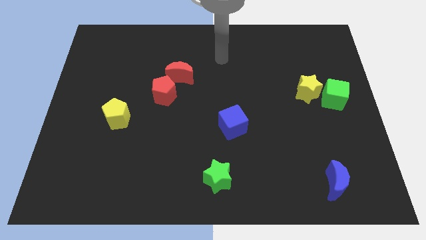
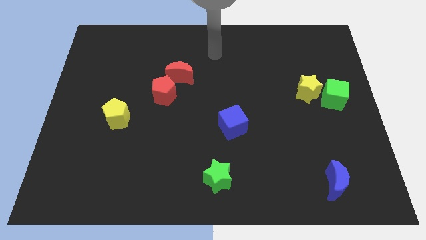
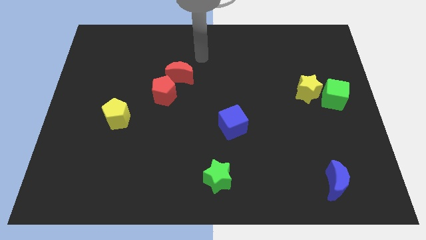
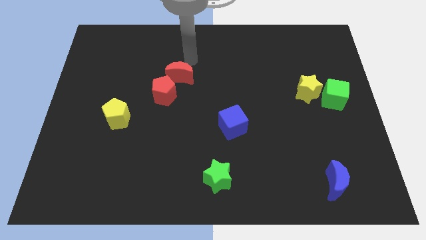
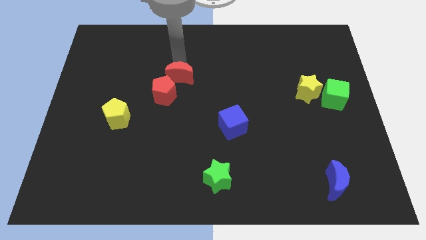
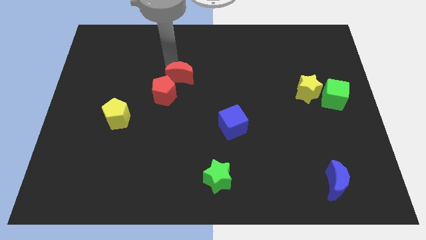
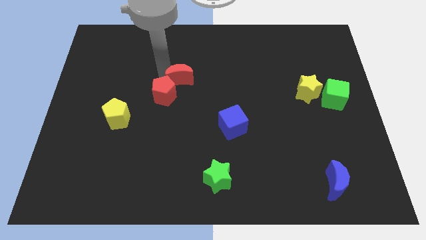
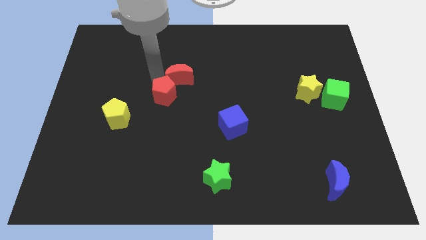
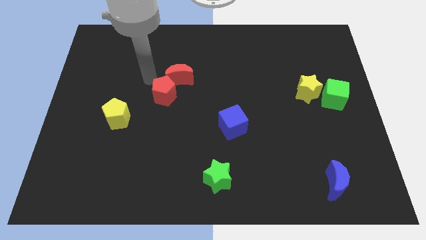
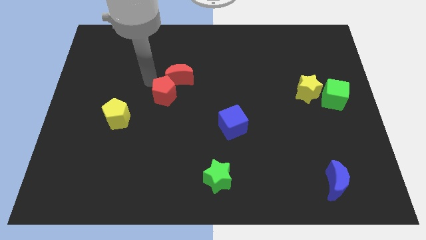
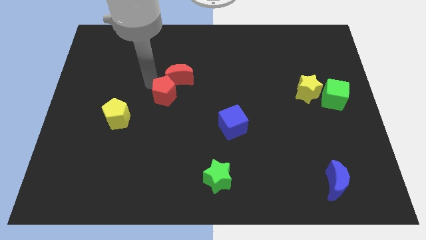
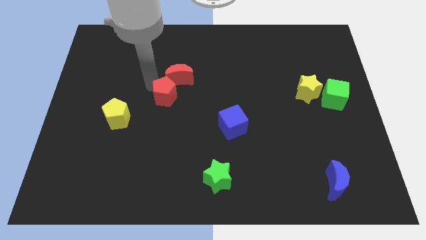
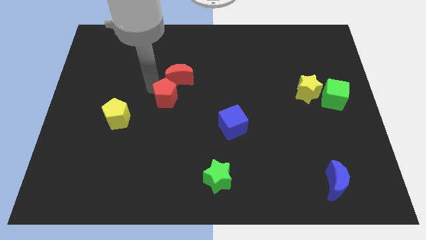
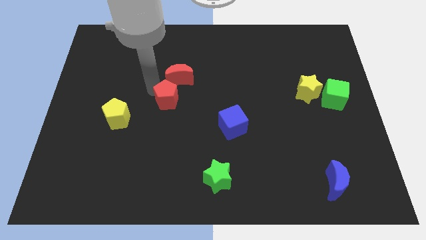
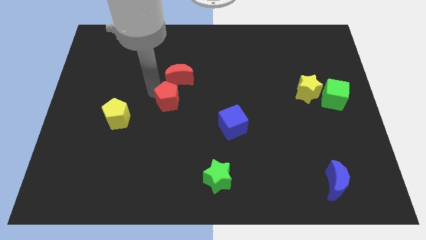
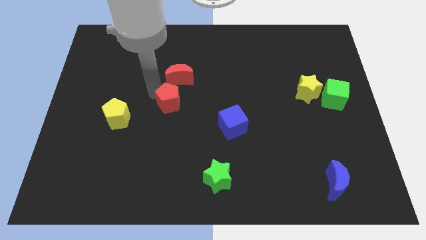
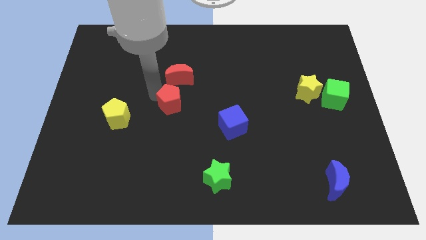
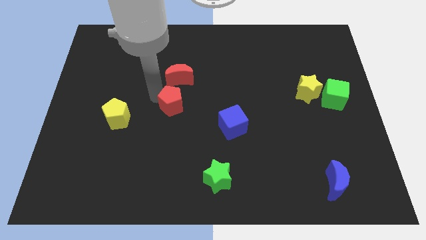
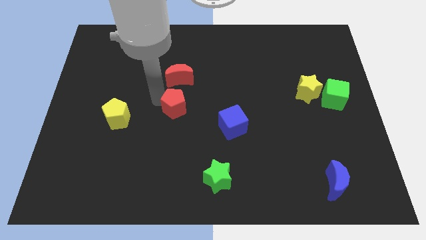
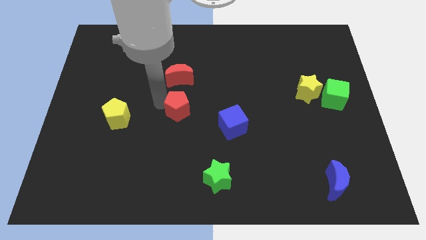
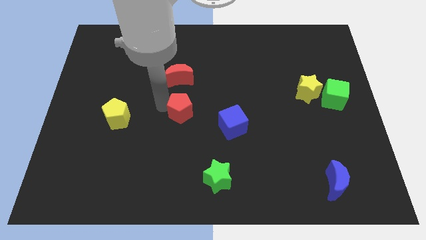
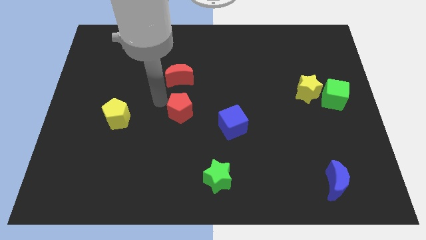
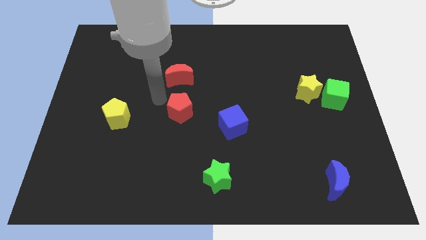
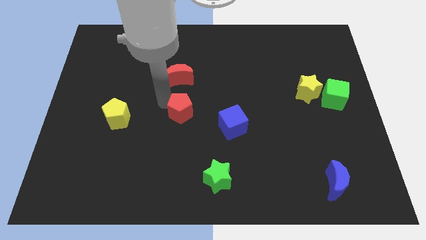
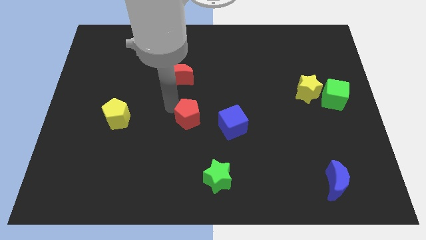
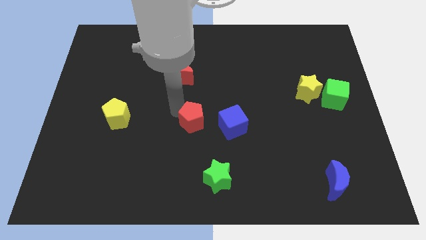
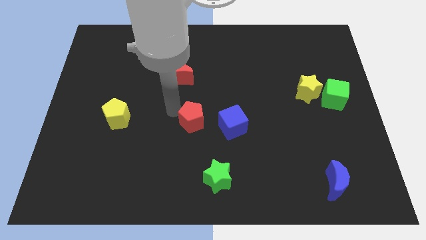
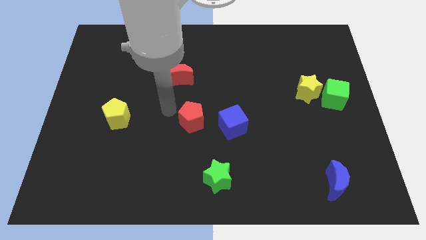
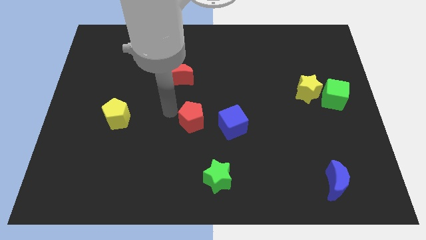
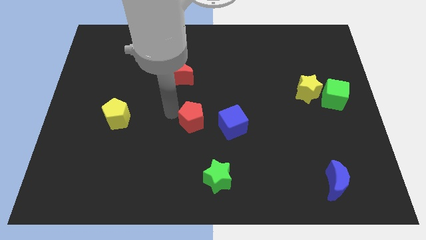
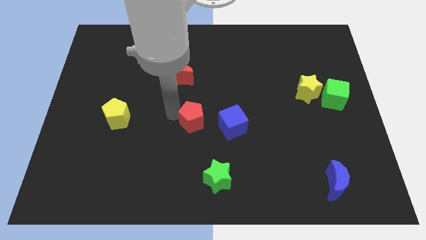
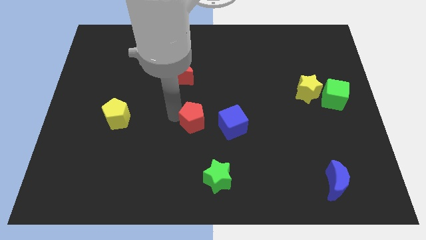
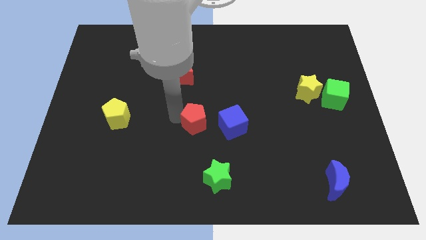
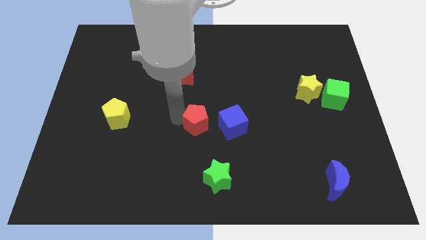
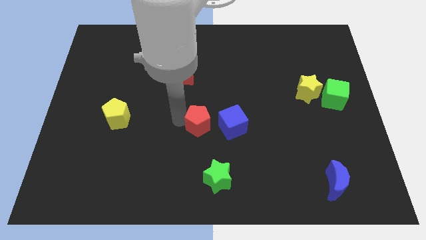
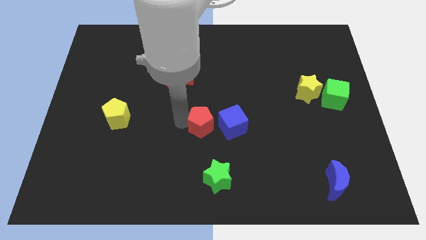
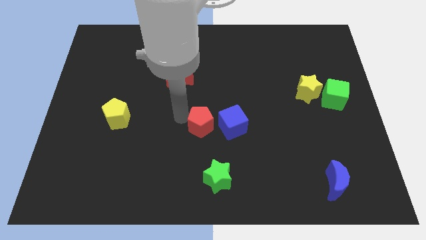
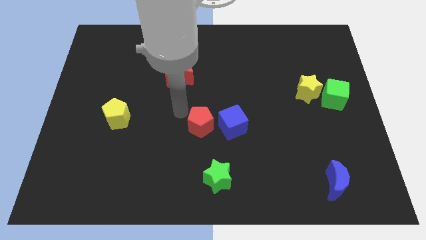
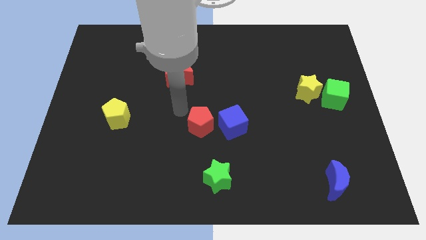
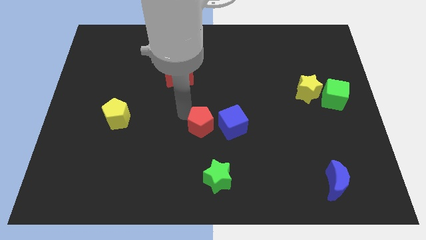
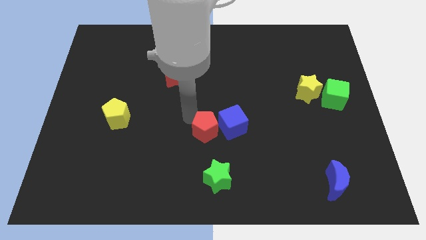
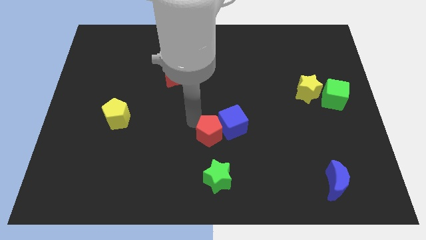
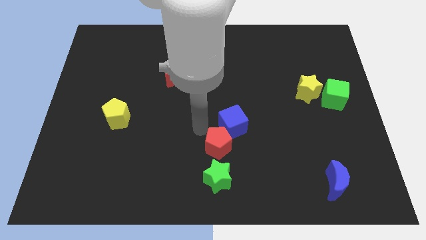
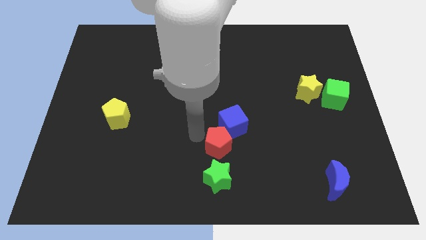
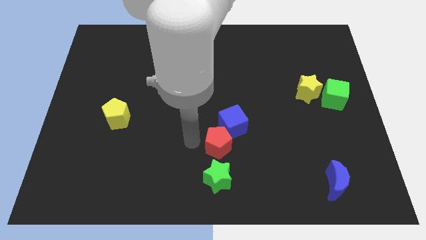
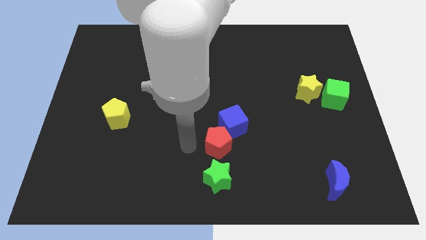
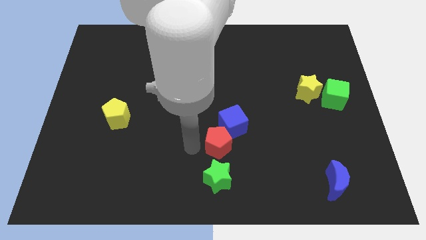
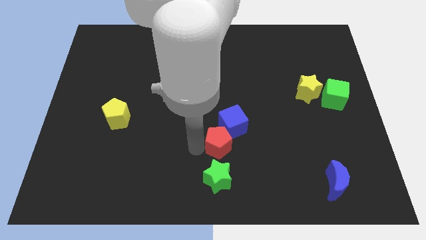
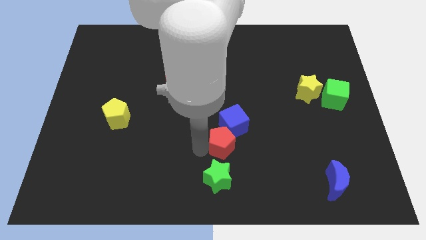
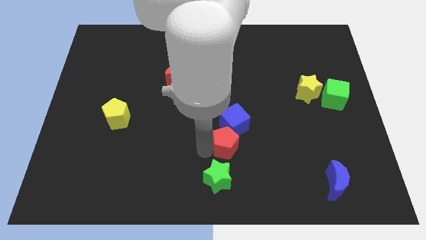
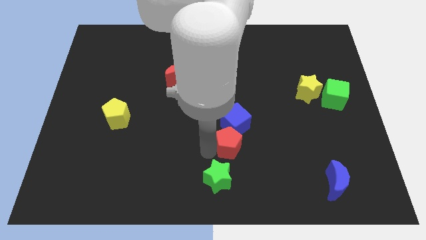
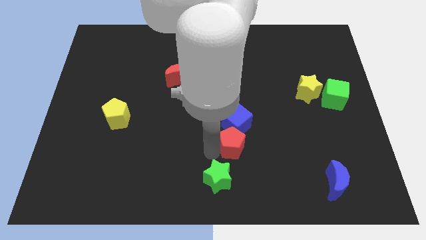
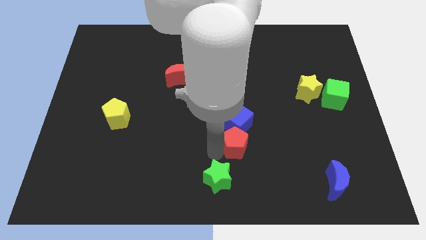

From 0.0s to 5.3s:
put the red pentagon to the bottom right of the blue cube

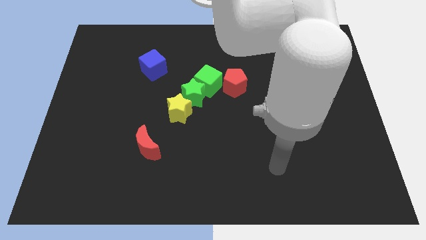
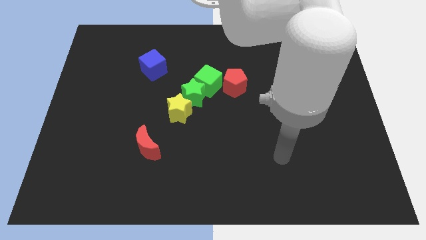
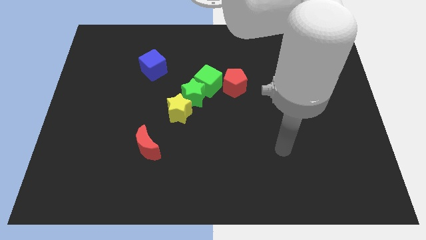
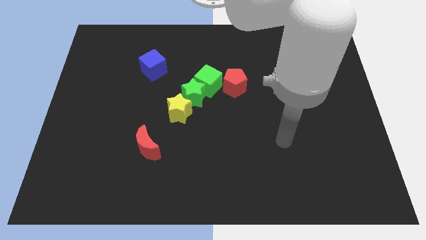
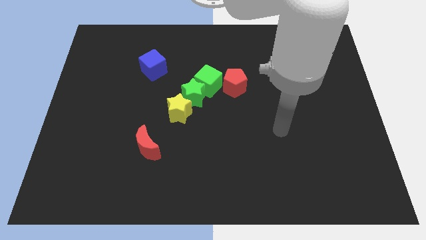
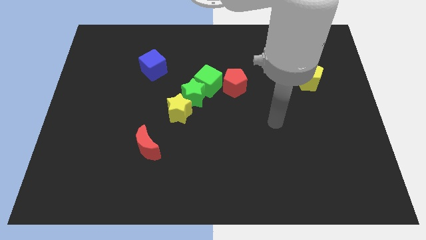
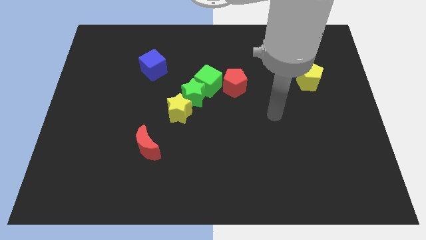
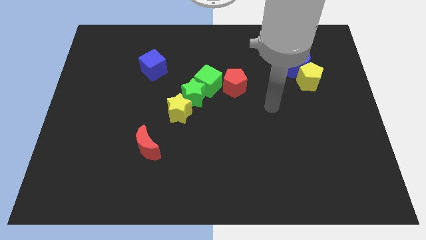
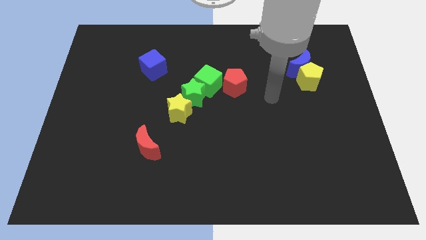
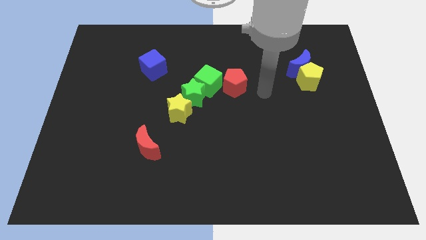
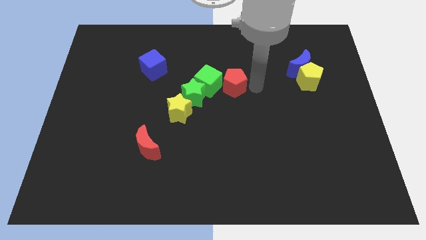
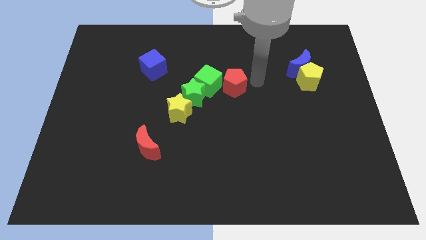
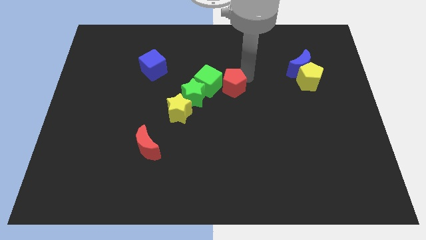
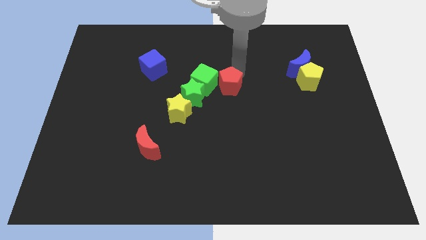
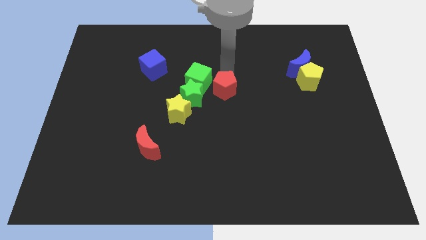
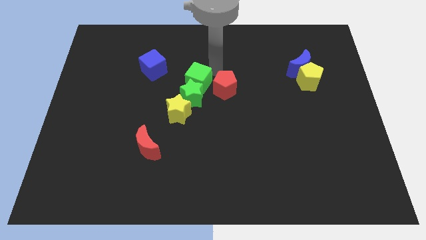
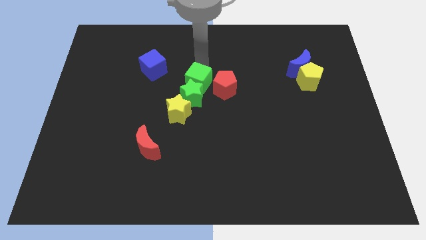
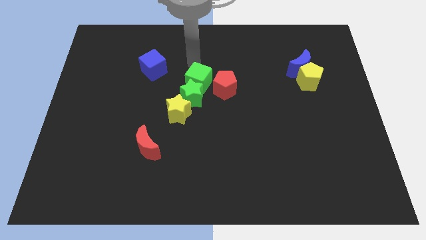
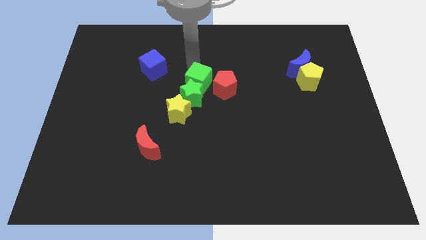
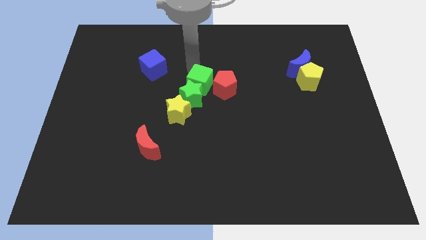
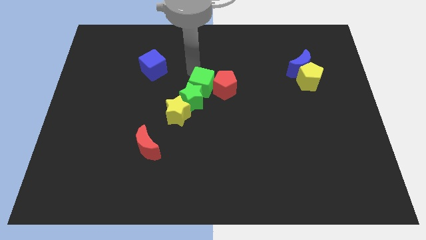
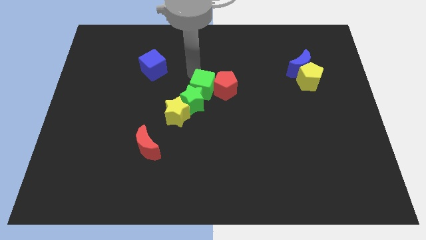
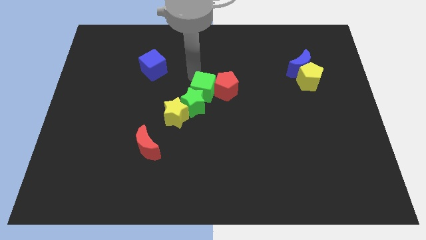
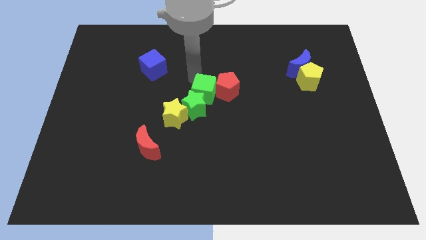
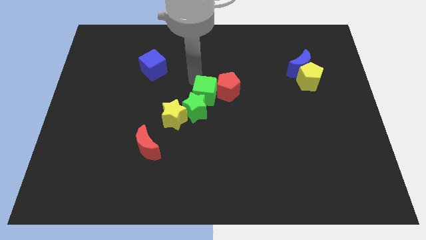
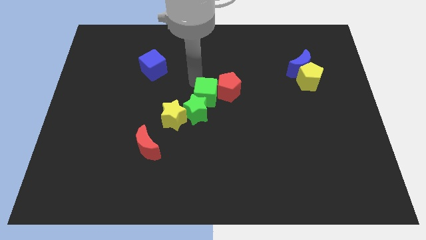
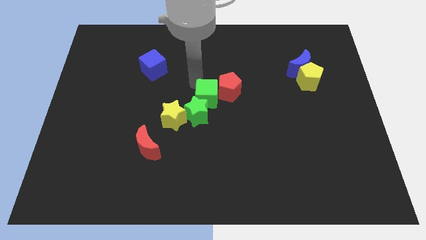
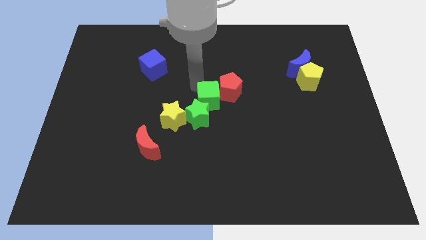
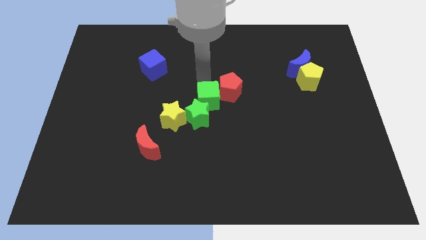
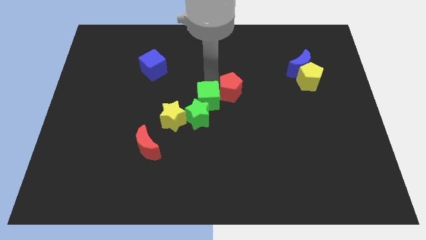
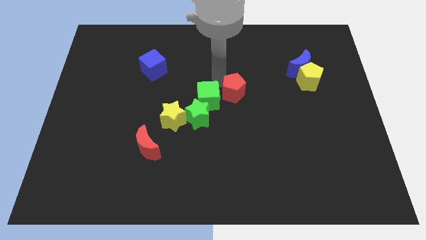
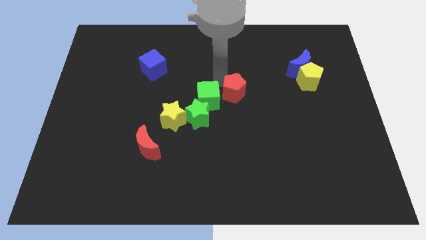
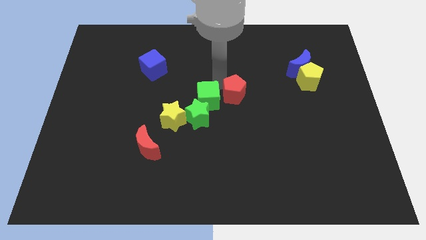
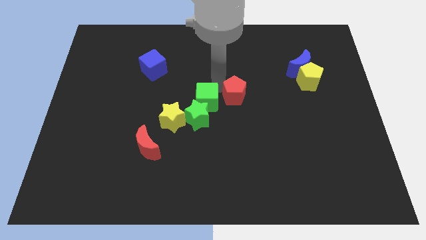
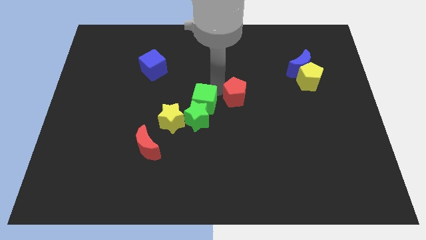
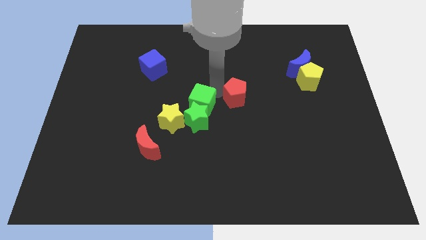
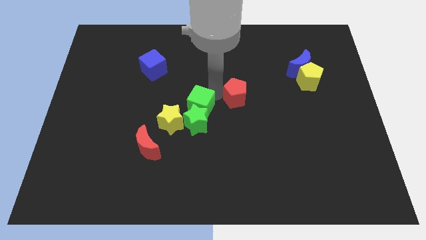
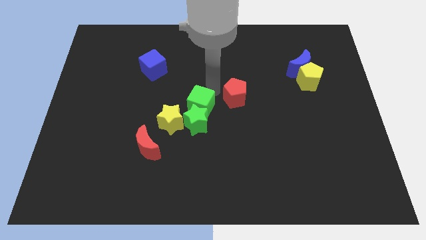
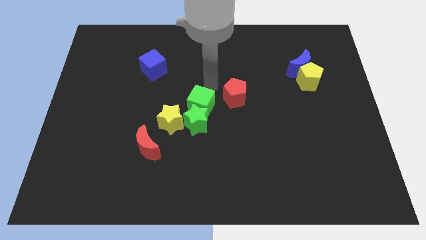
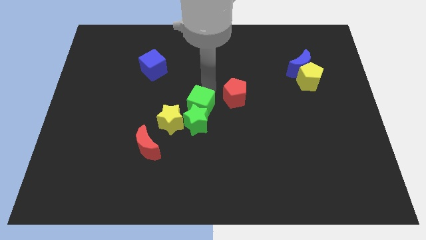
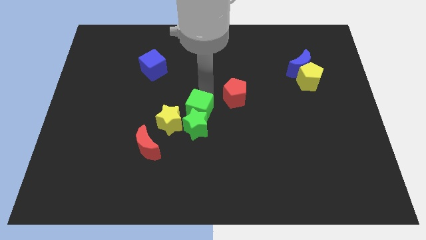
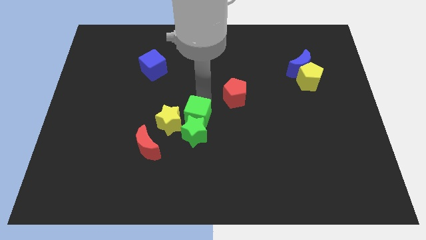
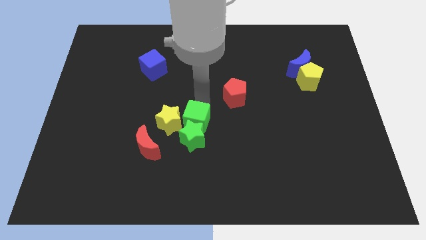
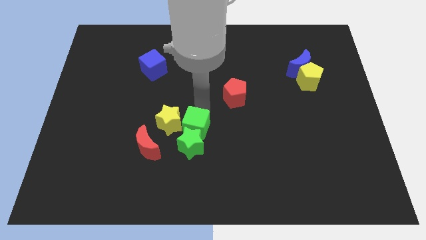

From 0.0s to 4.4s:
move the green cube to the top right side of the red moon
